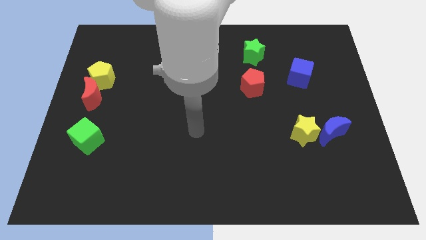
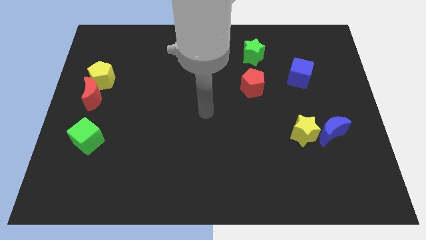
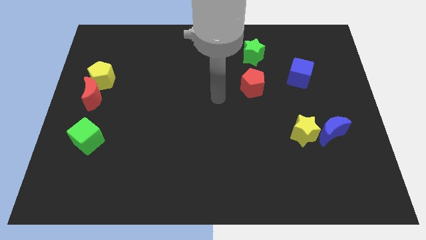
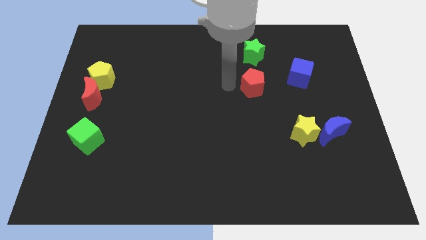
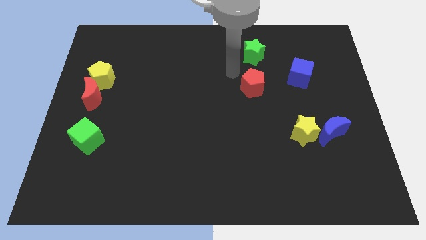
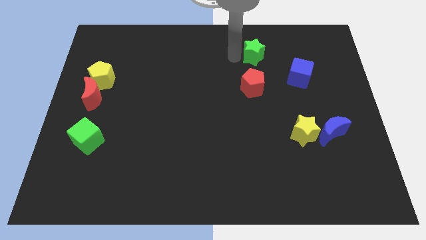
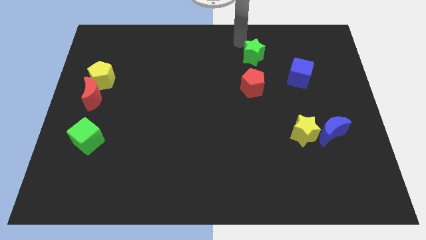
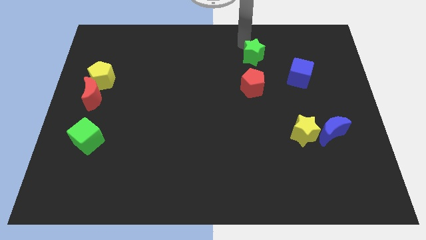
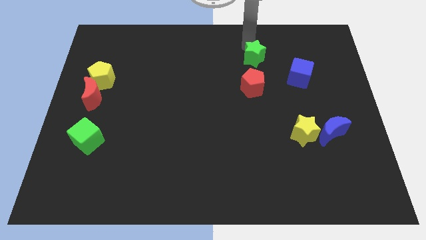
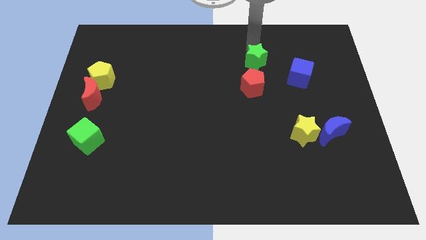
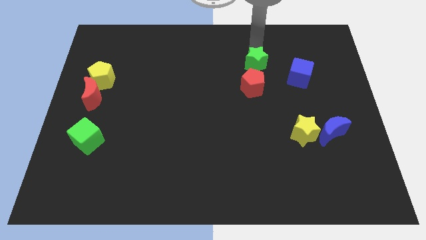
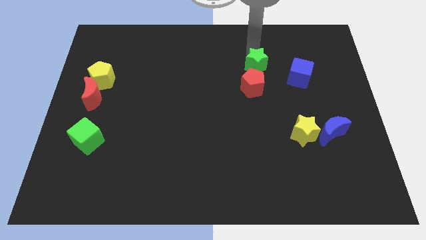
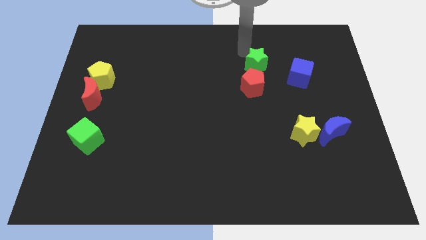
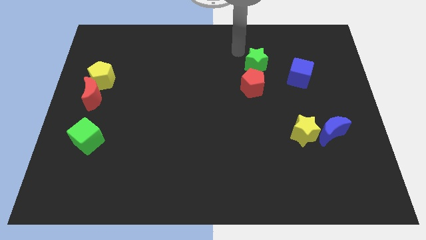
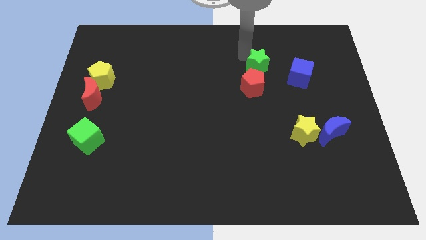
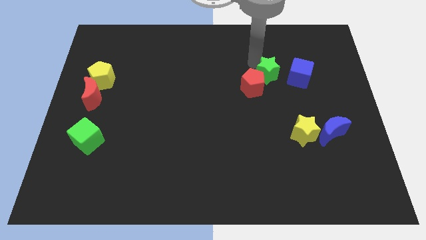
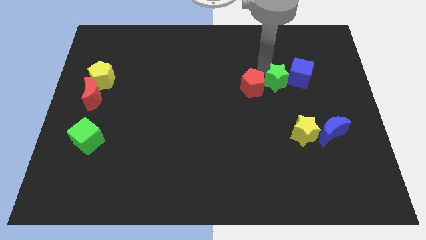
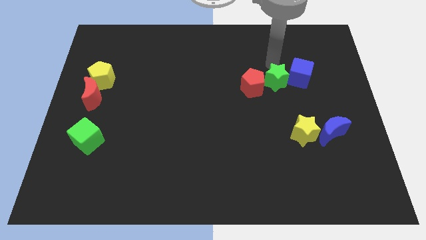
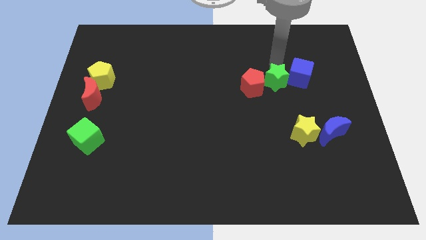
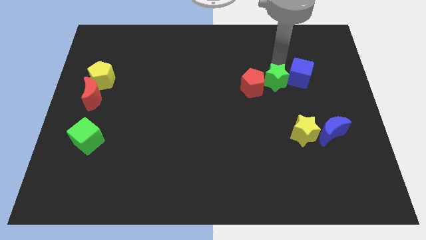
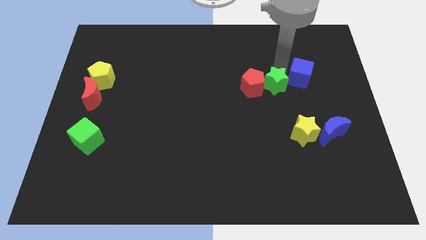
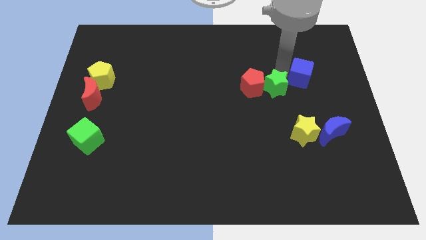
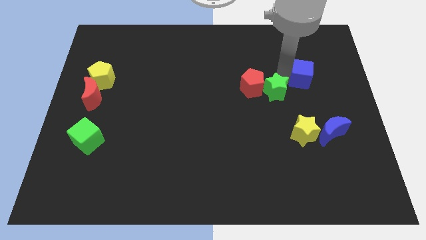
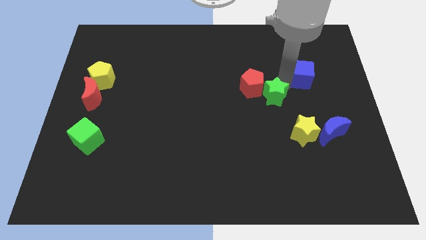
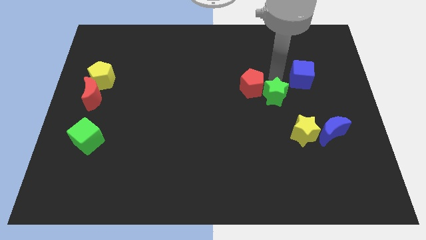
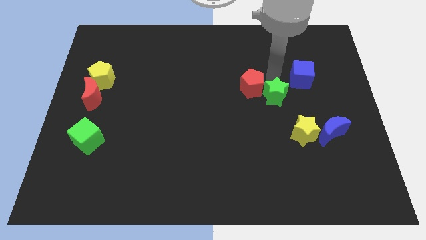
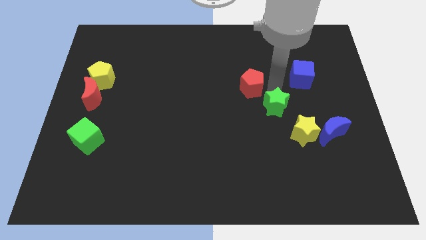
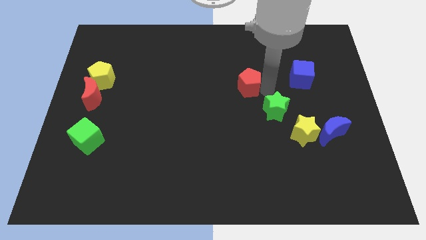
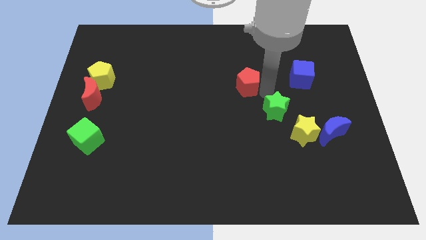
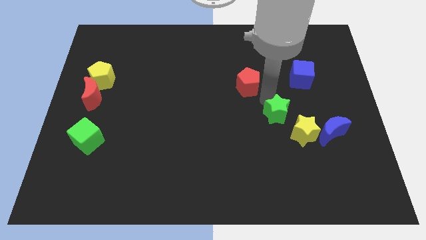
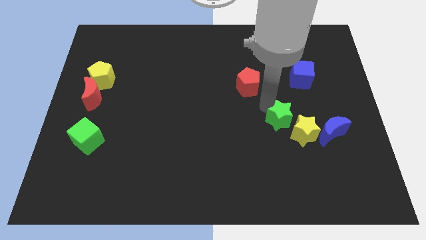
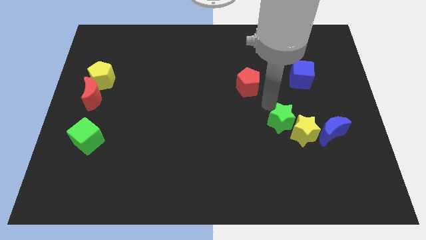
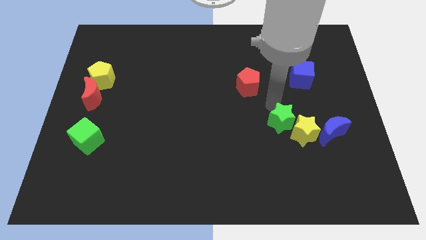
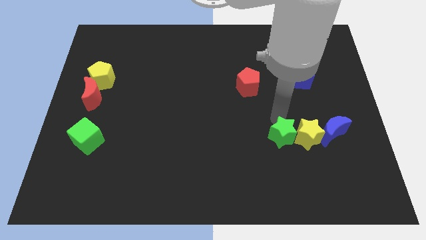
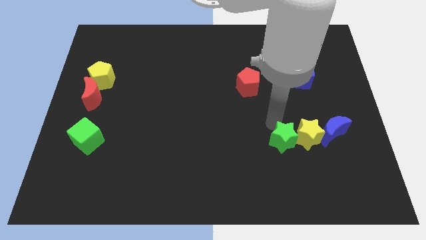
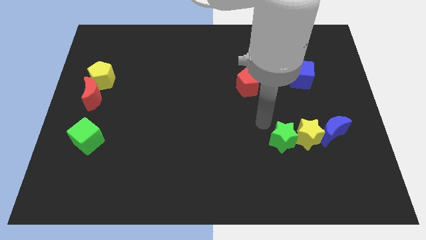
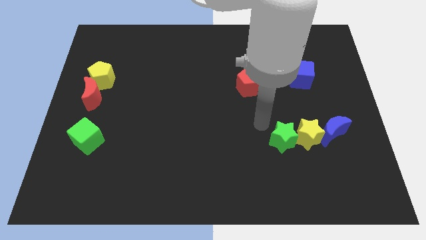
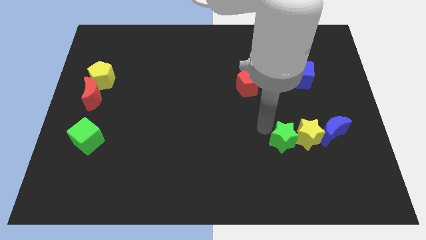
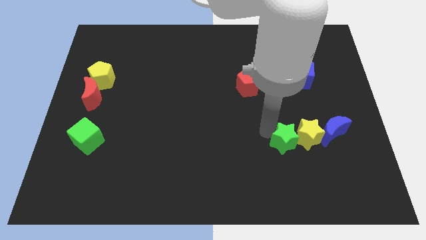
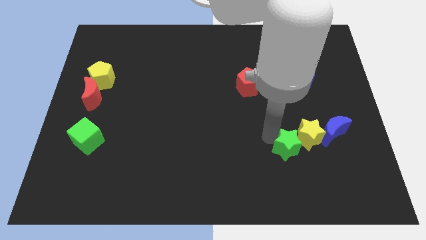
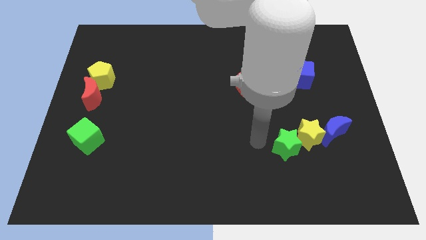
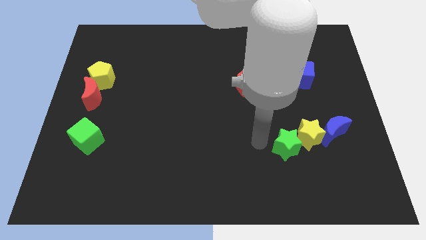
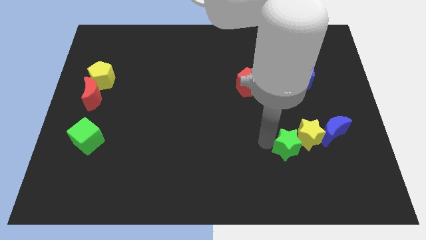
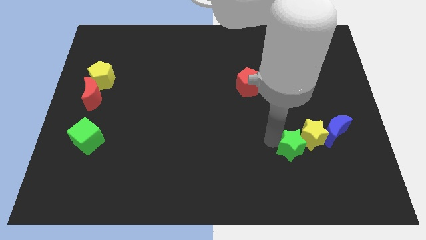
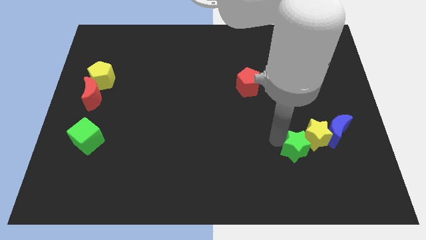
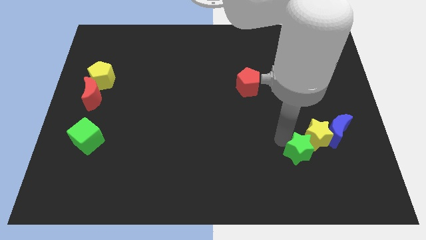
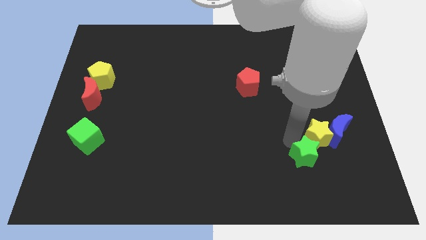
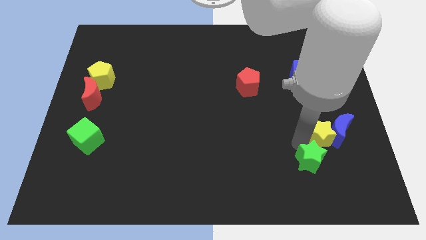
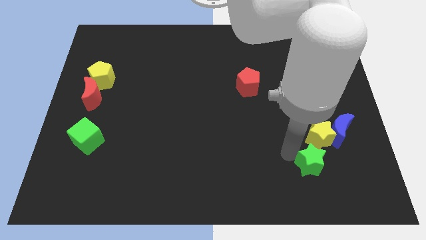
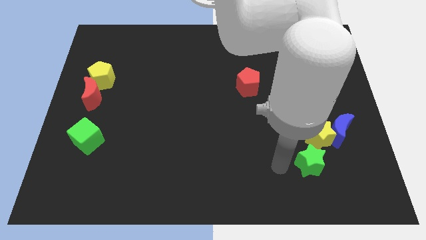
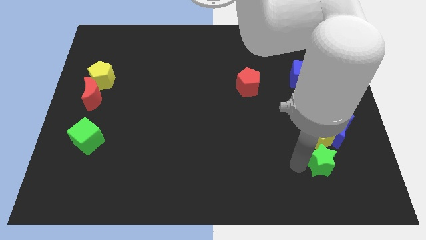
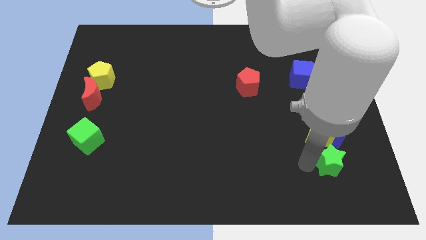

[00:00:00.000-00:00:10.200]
move the green star to the bottom right of the yellow star

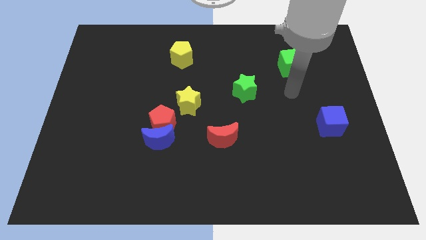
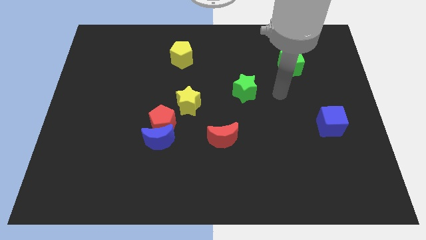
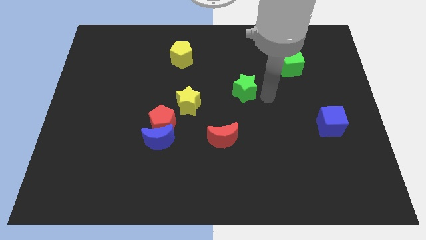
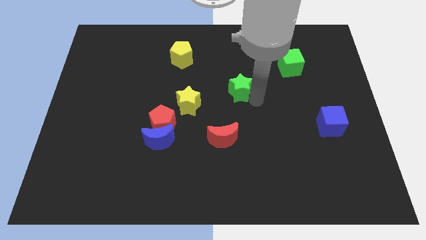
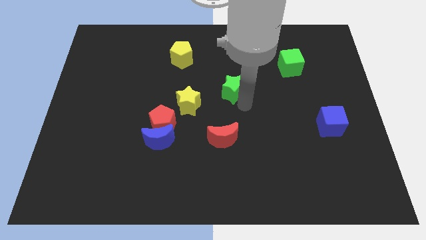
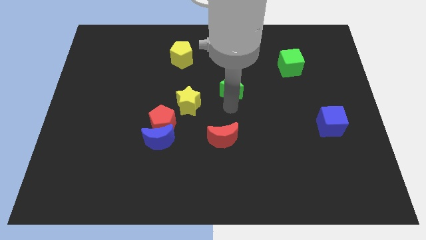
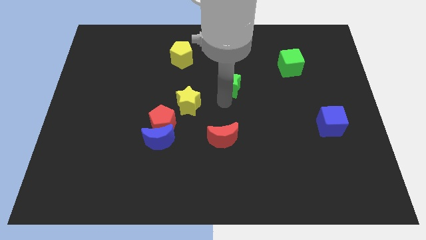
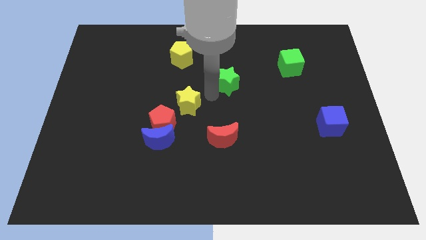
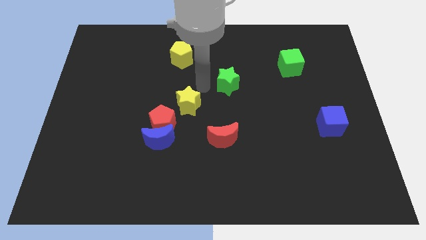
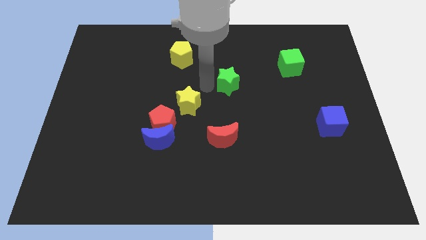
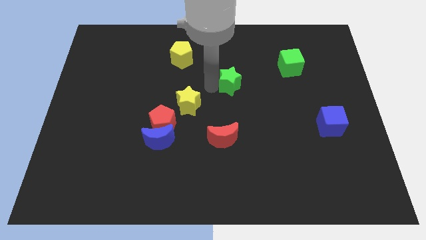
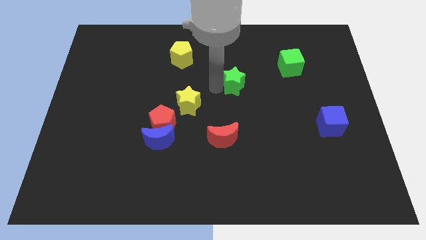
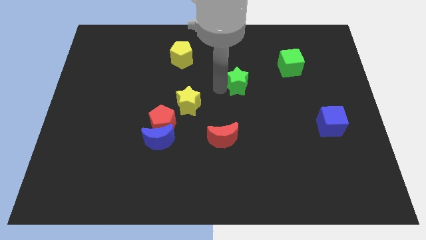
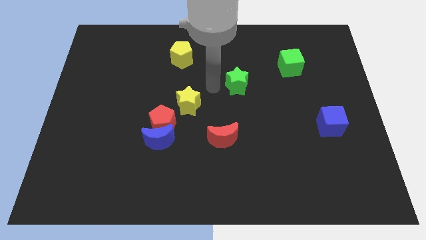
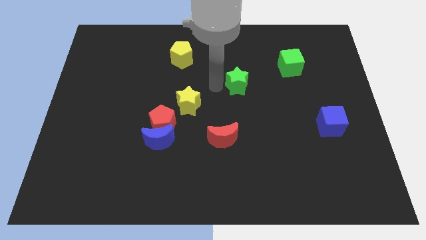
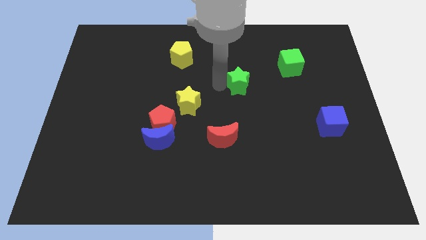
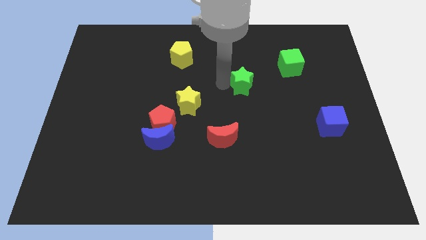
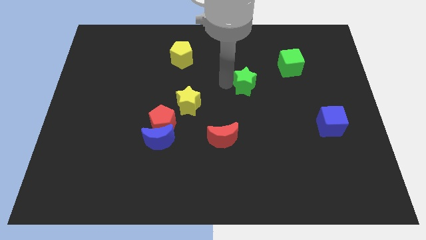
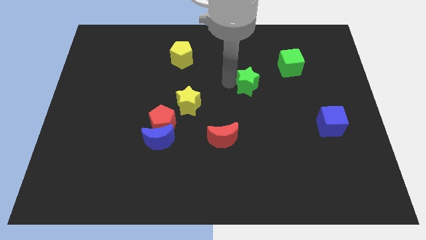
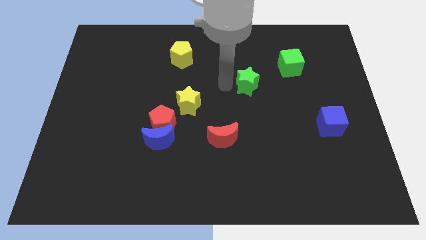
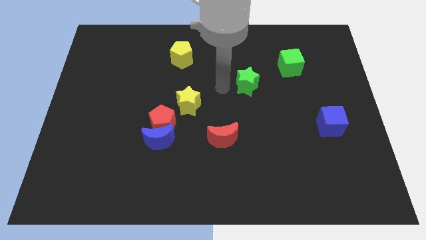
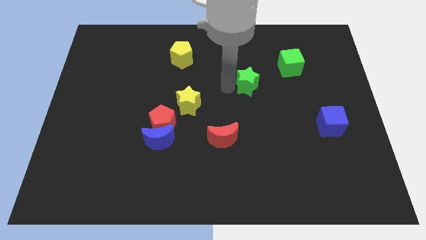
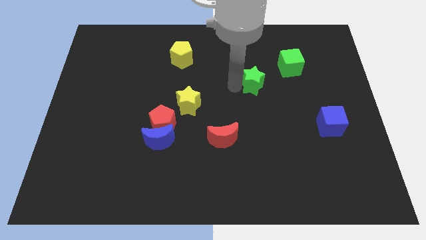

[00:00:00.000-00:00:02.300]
slide the green star to the bottom left of the green cube

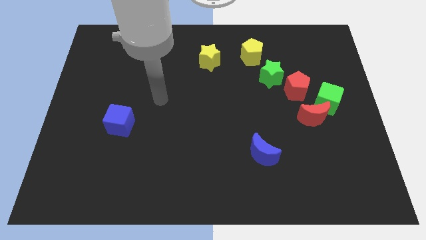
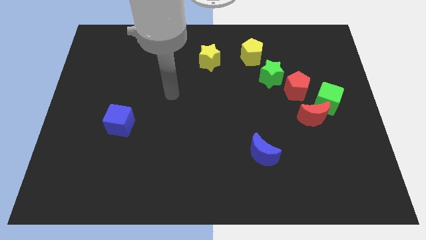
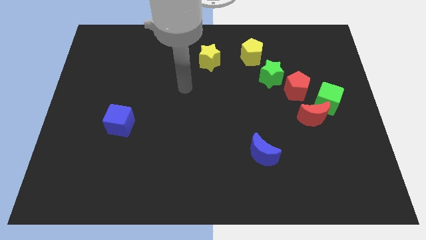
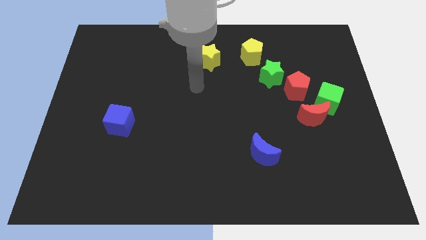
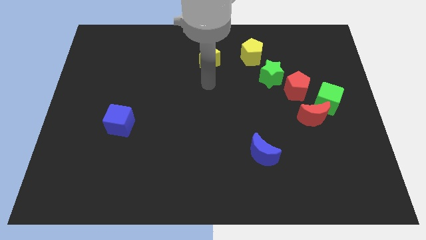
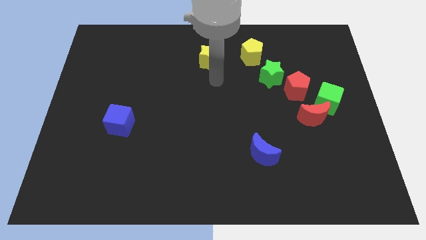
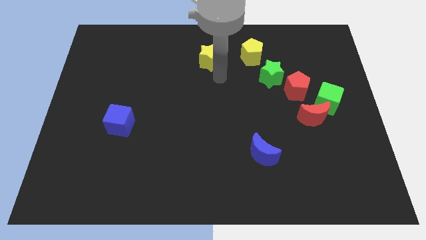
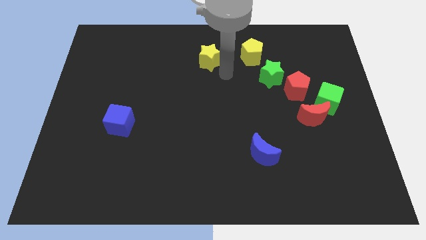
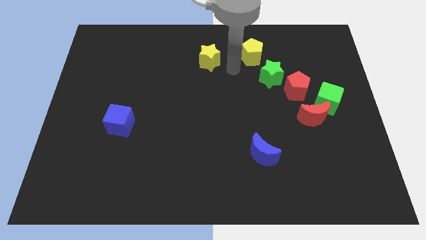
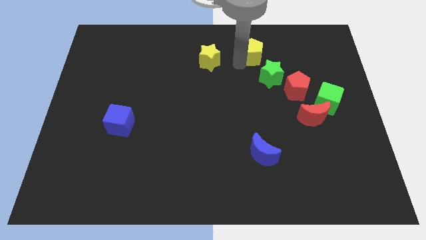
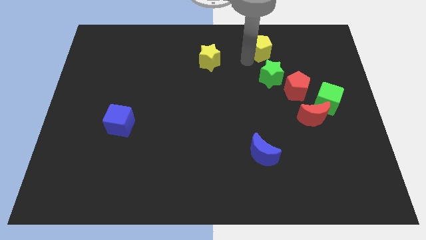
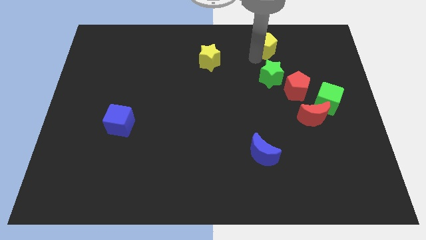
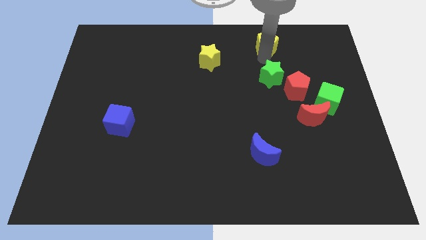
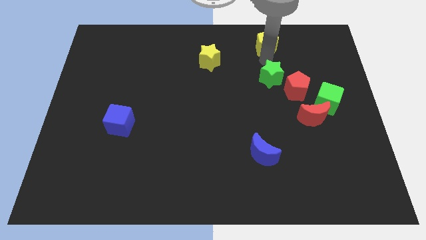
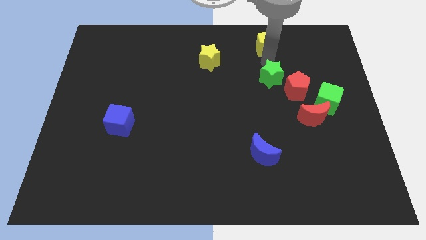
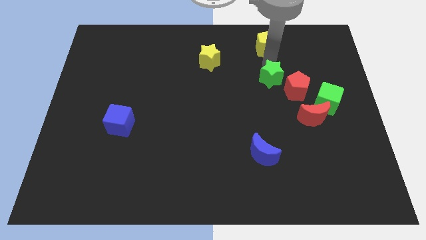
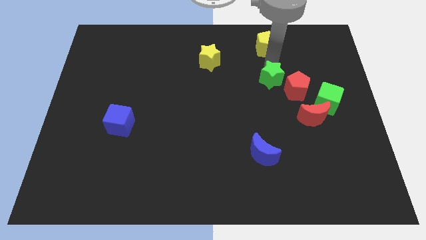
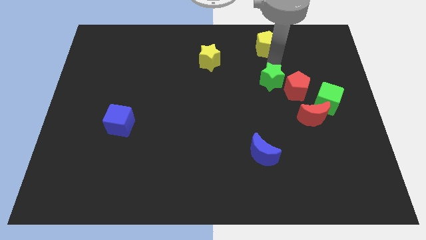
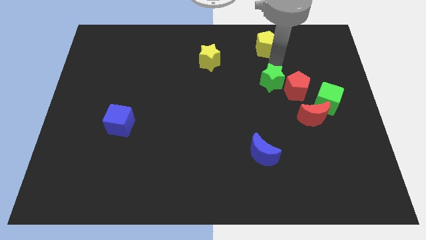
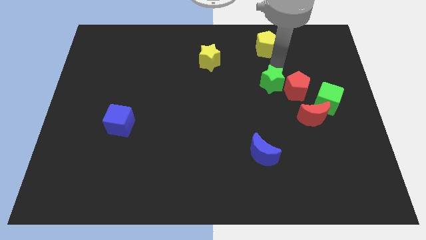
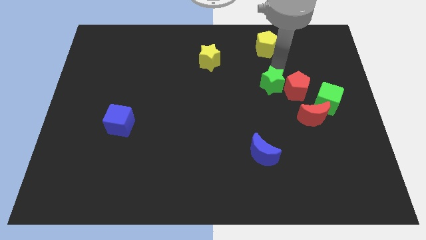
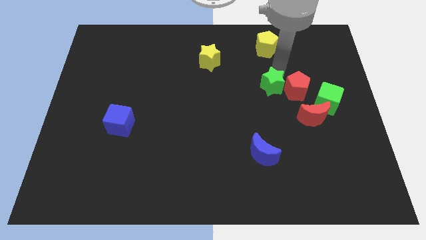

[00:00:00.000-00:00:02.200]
push the green star diagonally down and to the left of the red pentagon
